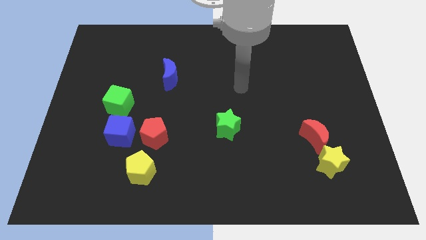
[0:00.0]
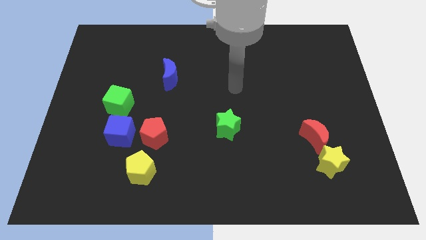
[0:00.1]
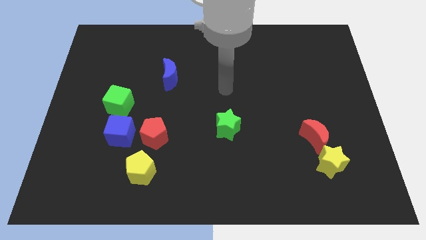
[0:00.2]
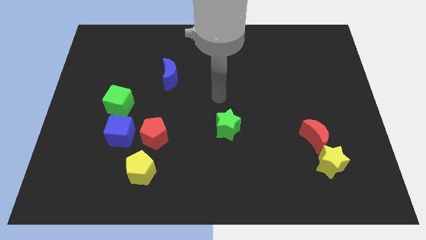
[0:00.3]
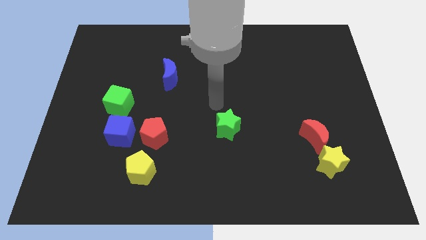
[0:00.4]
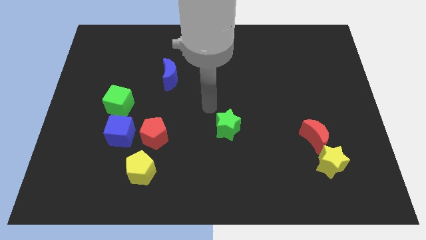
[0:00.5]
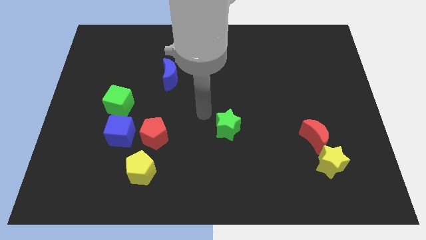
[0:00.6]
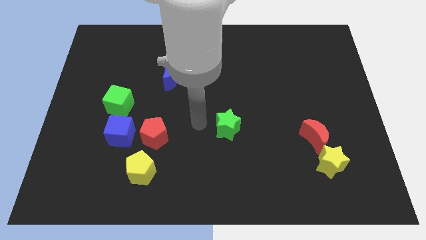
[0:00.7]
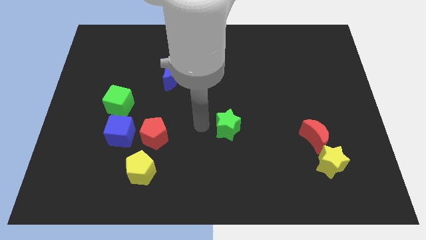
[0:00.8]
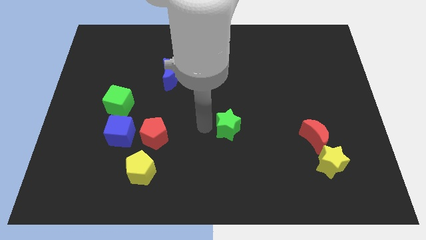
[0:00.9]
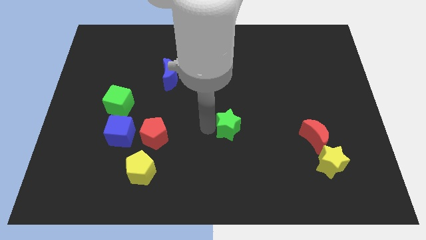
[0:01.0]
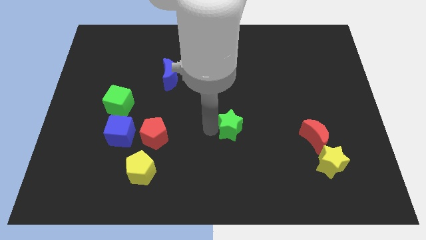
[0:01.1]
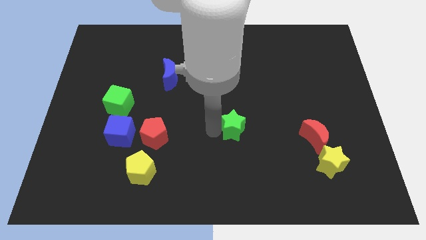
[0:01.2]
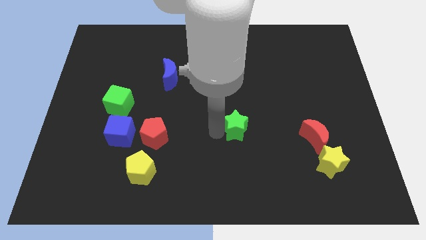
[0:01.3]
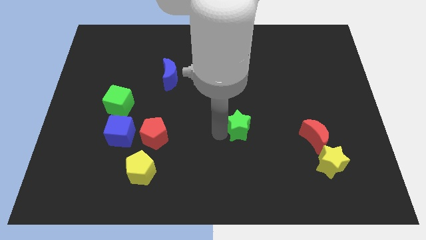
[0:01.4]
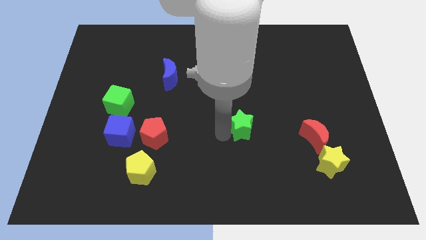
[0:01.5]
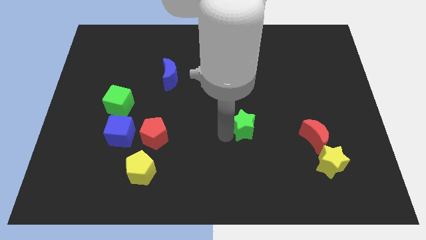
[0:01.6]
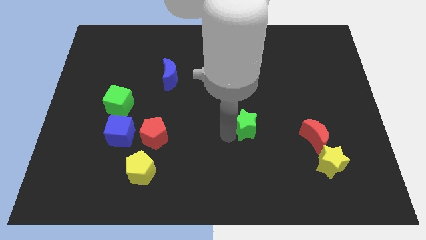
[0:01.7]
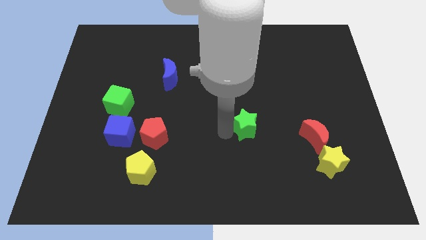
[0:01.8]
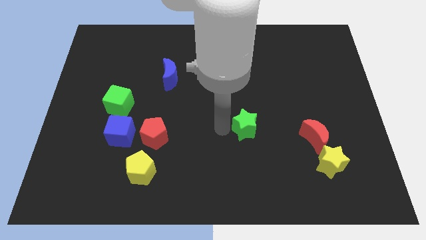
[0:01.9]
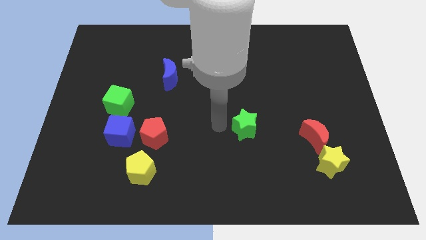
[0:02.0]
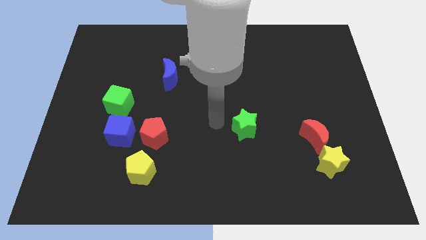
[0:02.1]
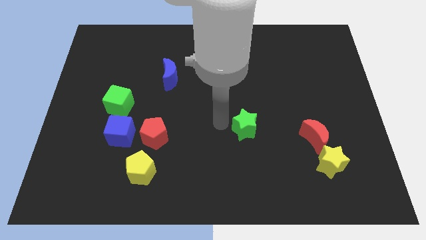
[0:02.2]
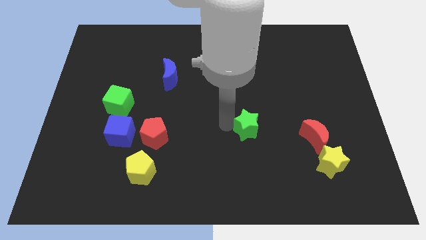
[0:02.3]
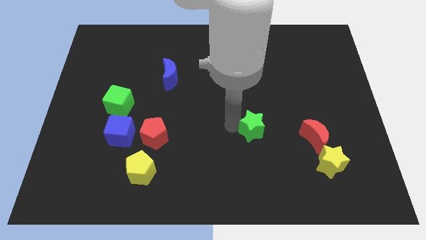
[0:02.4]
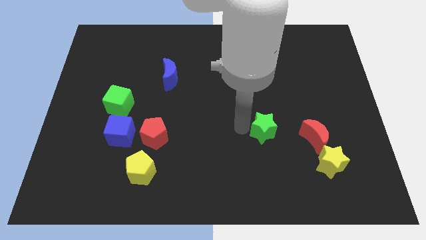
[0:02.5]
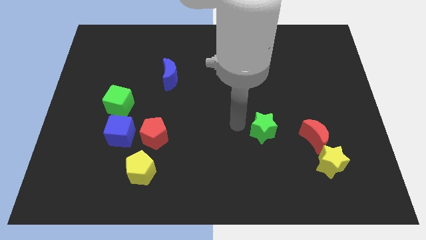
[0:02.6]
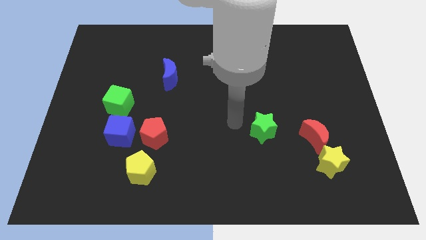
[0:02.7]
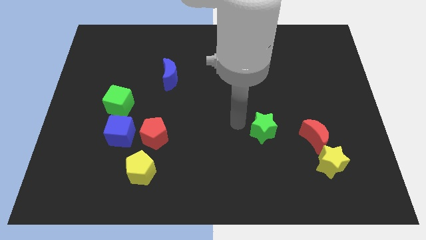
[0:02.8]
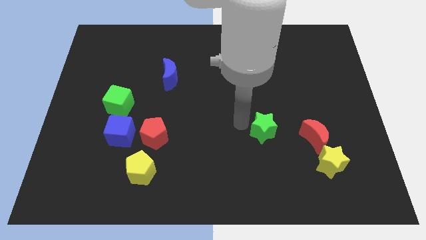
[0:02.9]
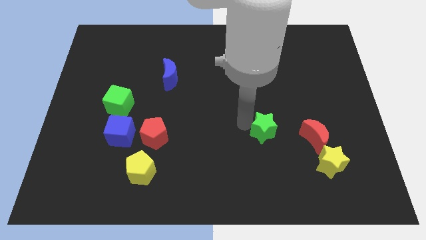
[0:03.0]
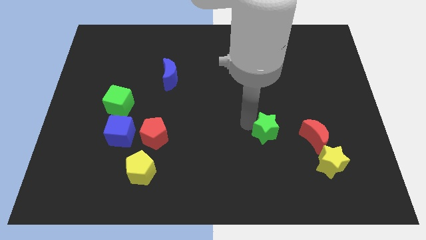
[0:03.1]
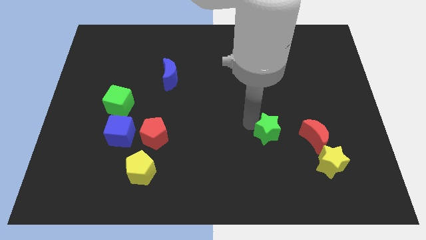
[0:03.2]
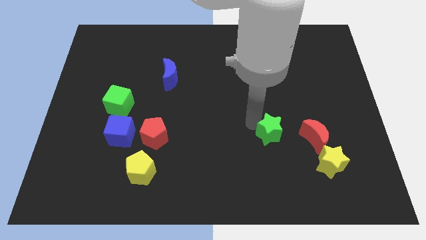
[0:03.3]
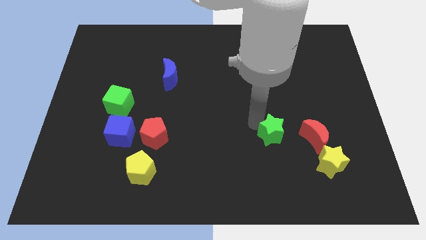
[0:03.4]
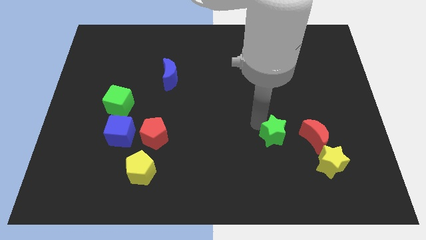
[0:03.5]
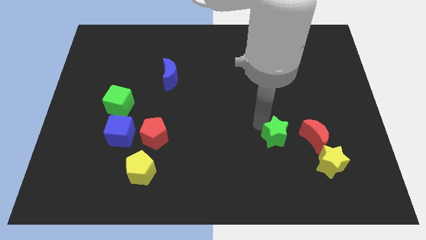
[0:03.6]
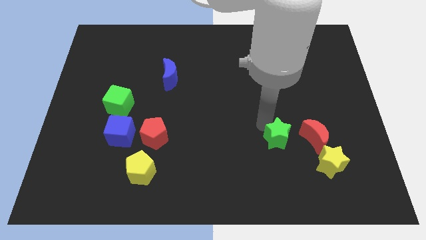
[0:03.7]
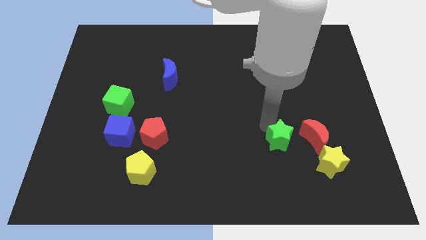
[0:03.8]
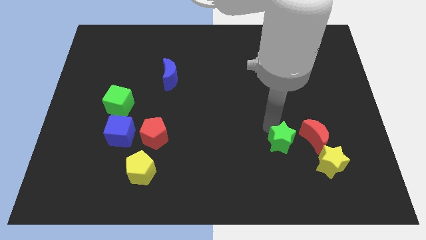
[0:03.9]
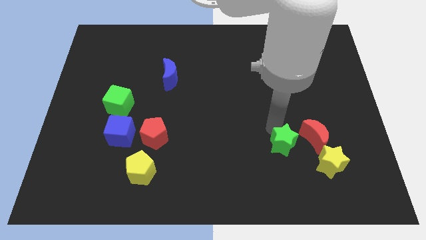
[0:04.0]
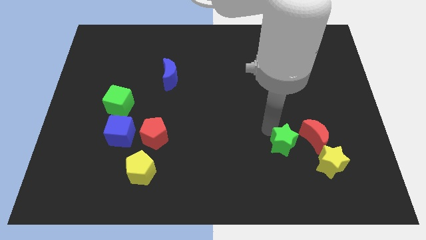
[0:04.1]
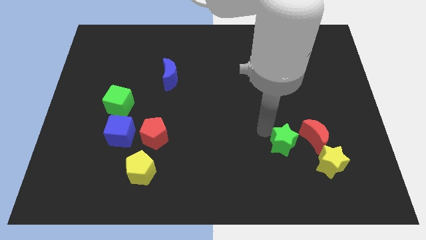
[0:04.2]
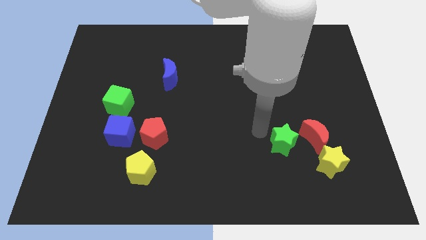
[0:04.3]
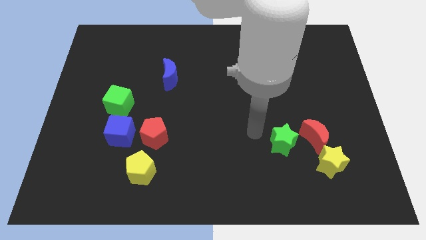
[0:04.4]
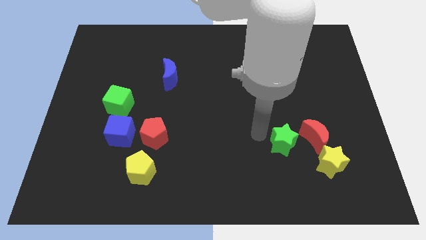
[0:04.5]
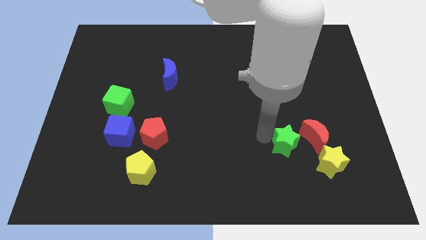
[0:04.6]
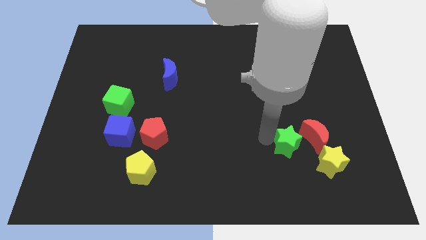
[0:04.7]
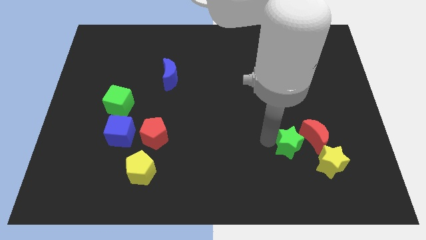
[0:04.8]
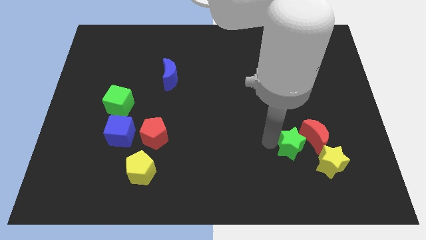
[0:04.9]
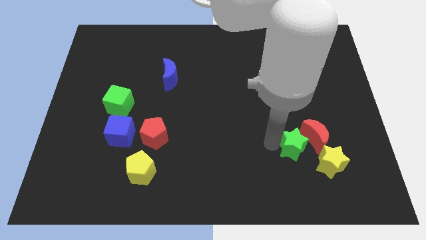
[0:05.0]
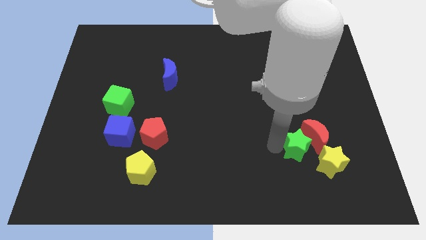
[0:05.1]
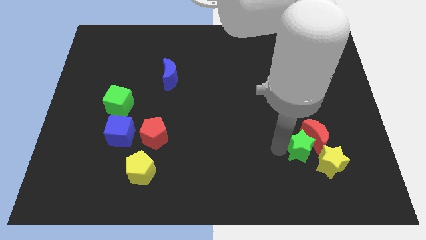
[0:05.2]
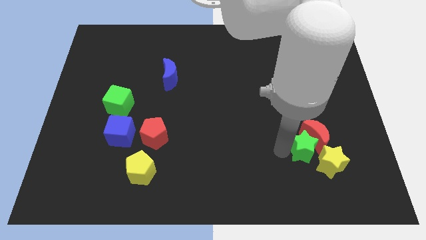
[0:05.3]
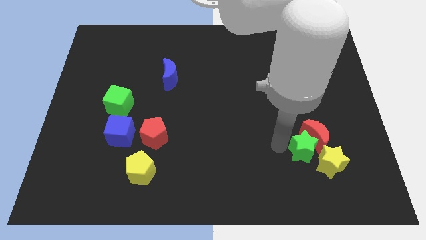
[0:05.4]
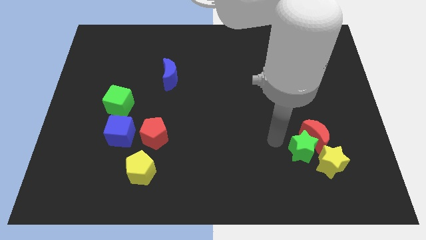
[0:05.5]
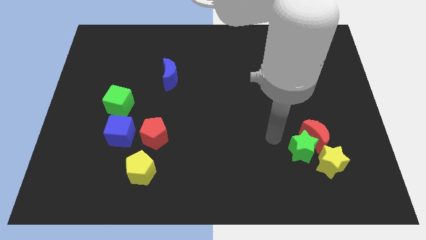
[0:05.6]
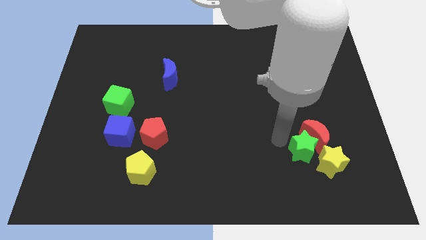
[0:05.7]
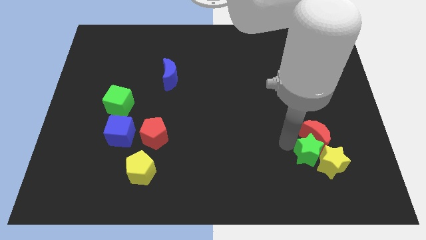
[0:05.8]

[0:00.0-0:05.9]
move the green star towards the yellow star
